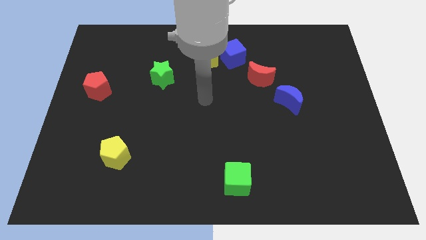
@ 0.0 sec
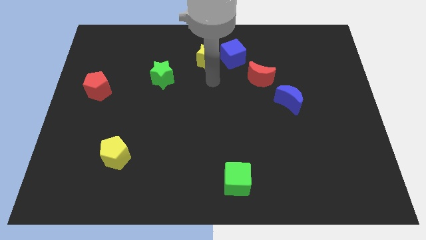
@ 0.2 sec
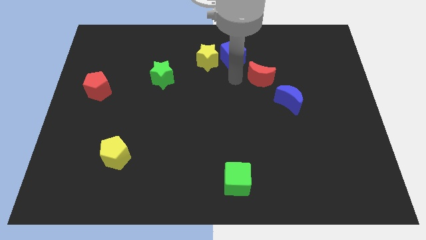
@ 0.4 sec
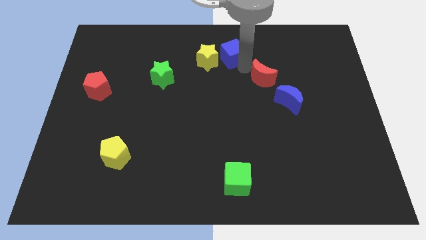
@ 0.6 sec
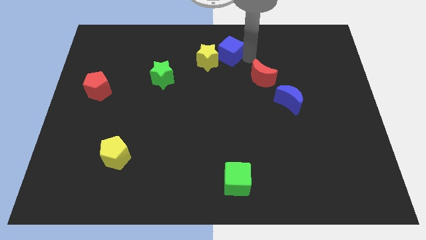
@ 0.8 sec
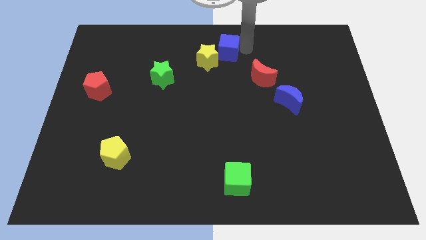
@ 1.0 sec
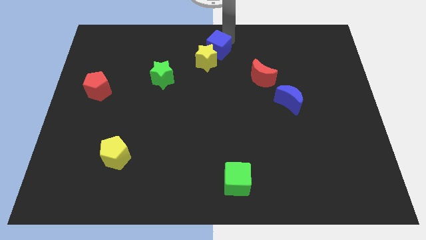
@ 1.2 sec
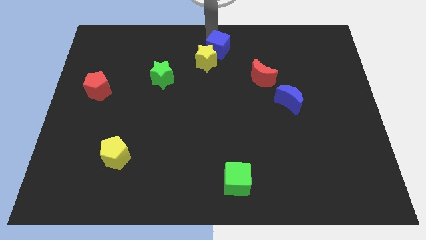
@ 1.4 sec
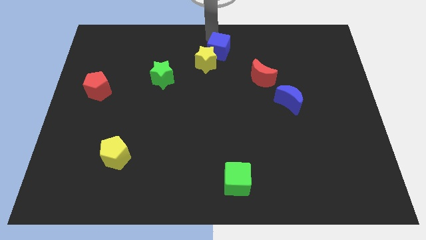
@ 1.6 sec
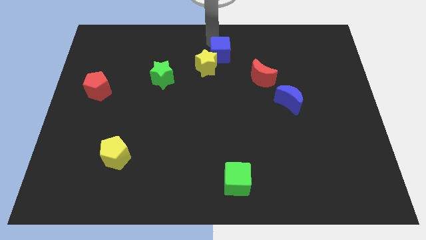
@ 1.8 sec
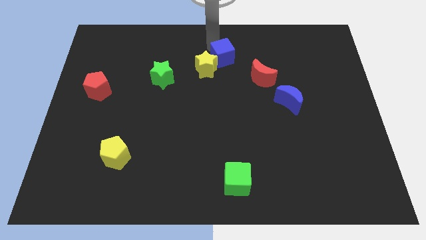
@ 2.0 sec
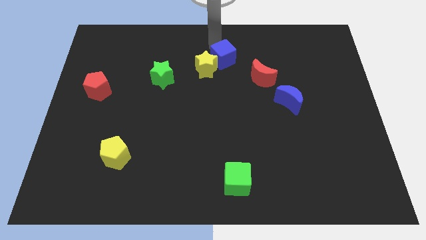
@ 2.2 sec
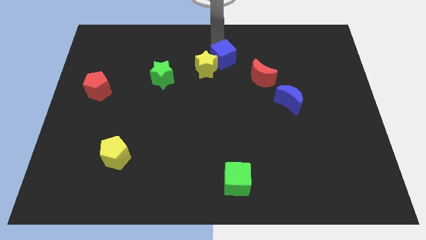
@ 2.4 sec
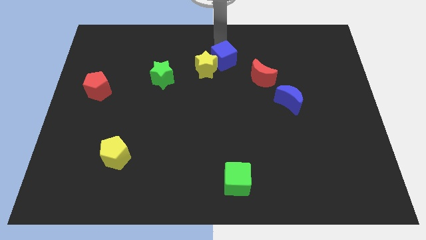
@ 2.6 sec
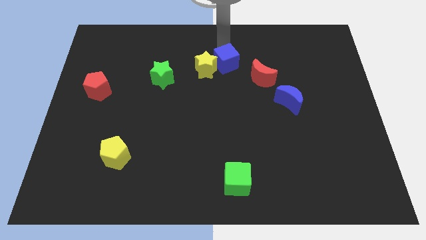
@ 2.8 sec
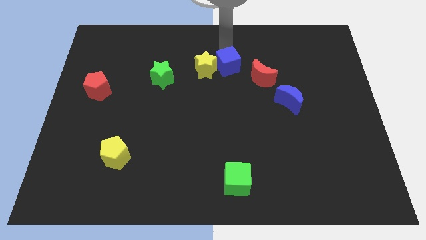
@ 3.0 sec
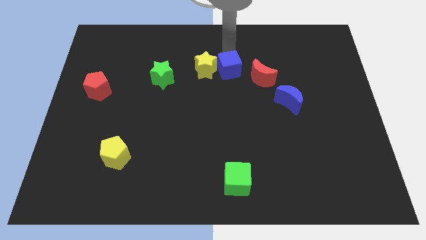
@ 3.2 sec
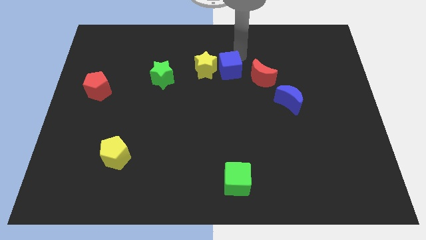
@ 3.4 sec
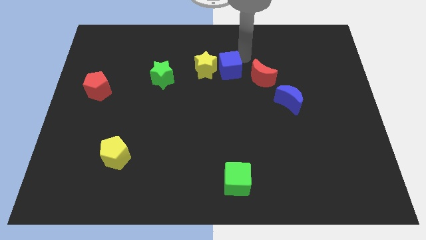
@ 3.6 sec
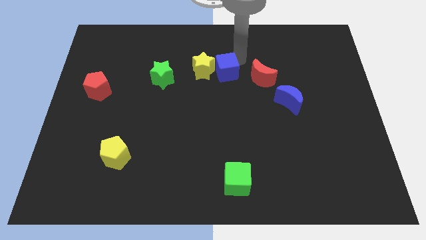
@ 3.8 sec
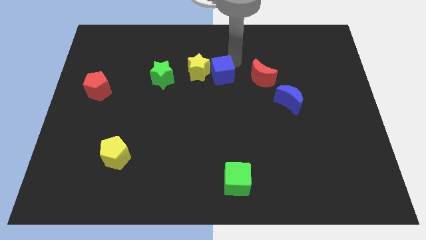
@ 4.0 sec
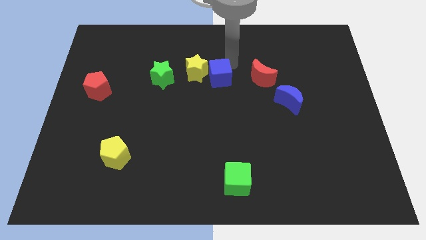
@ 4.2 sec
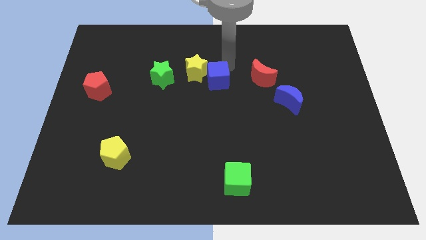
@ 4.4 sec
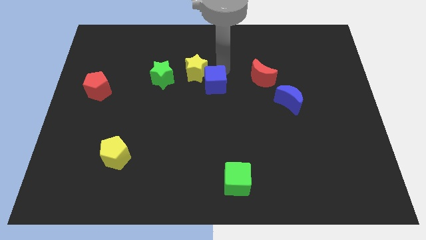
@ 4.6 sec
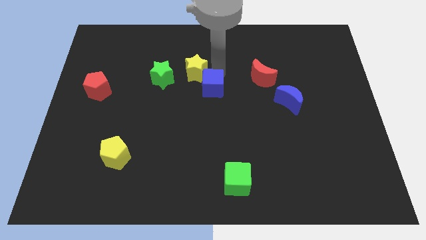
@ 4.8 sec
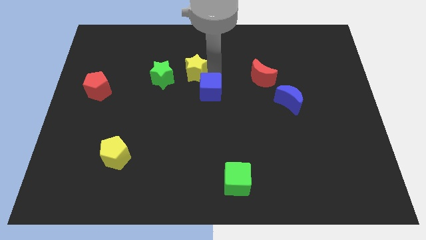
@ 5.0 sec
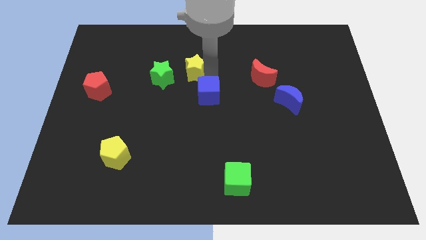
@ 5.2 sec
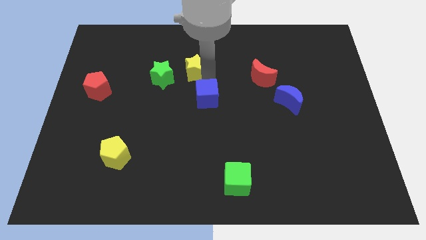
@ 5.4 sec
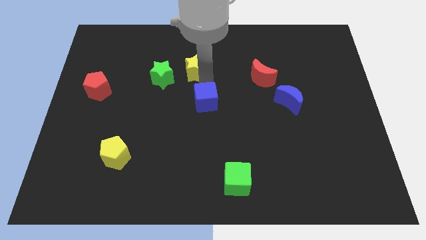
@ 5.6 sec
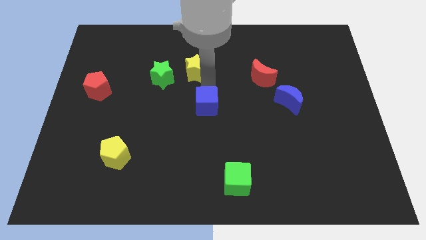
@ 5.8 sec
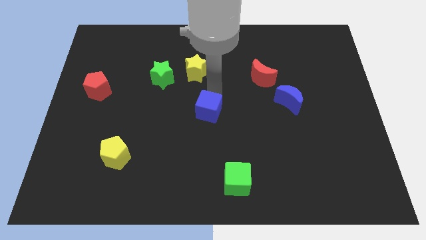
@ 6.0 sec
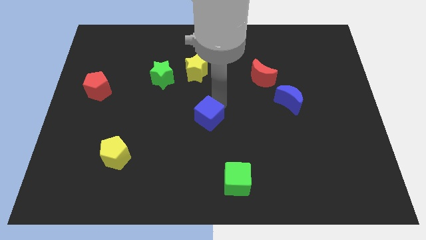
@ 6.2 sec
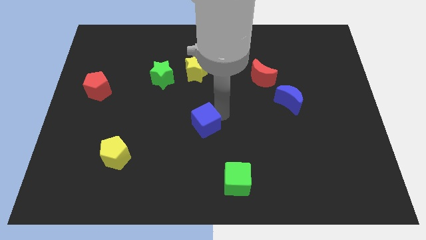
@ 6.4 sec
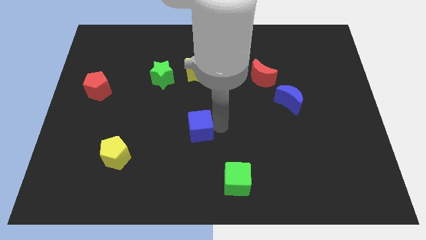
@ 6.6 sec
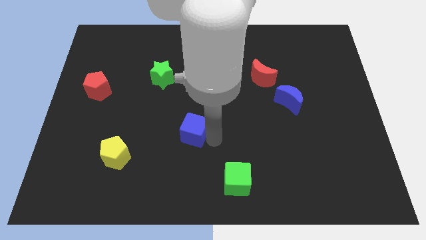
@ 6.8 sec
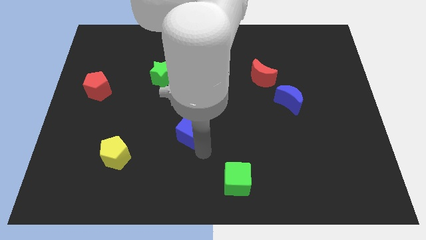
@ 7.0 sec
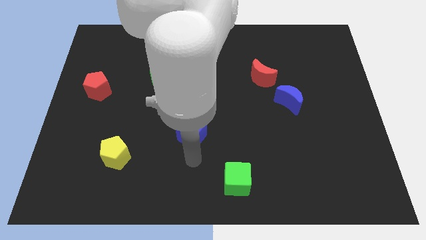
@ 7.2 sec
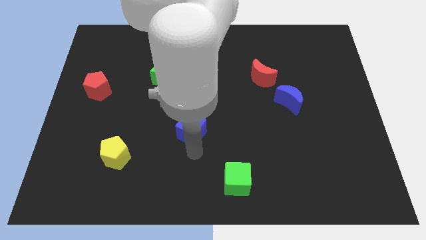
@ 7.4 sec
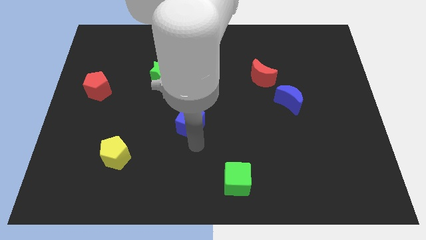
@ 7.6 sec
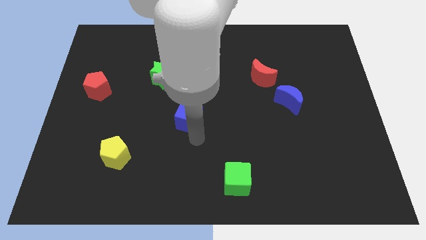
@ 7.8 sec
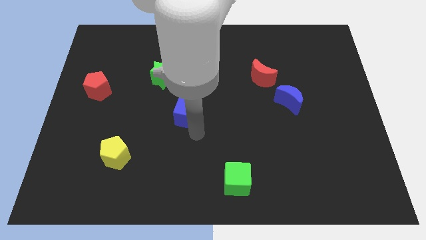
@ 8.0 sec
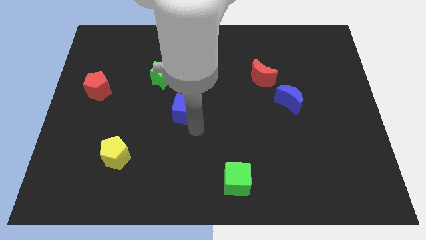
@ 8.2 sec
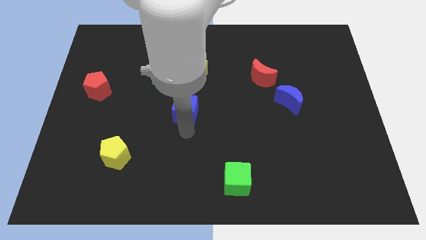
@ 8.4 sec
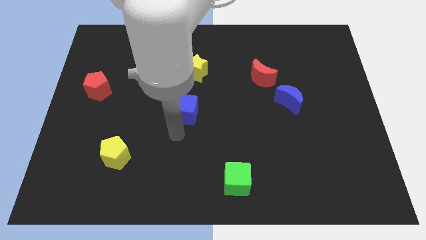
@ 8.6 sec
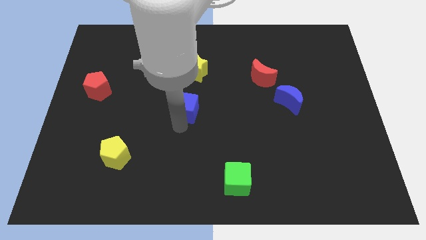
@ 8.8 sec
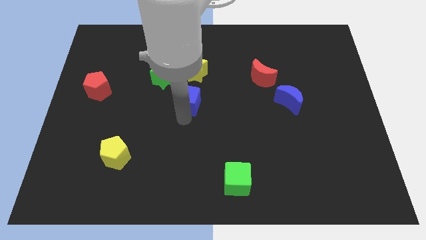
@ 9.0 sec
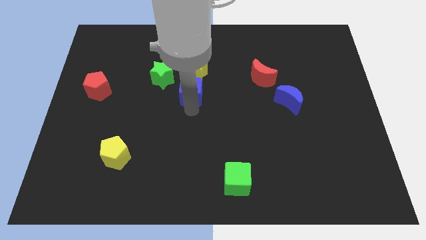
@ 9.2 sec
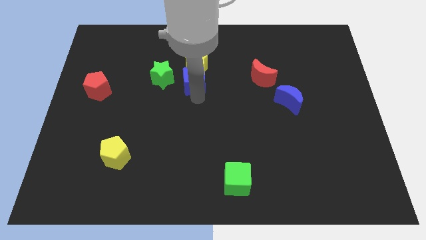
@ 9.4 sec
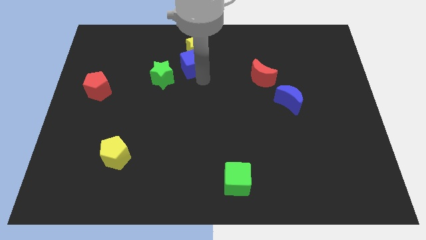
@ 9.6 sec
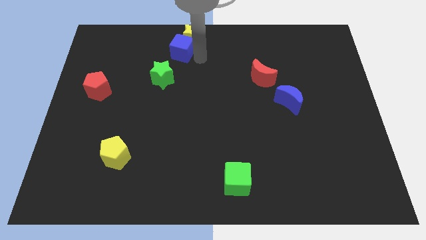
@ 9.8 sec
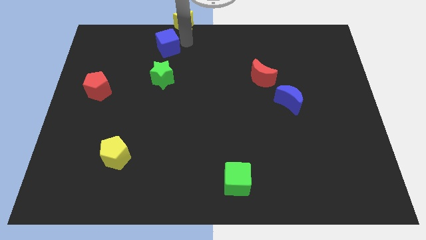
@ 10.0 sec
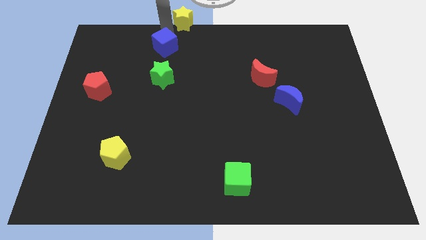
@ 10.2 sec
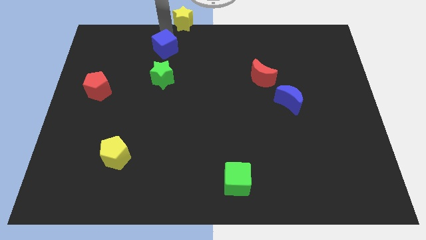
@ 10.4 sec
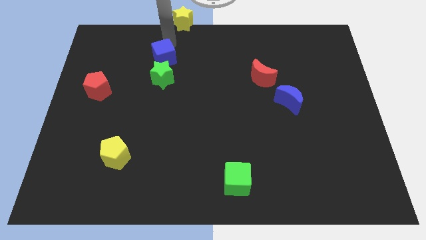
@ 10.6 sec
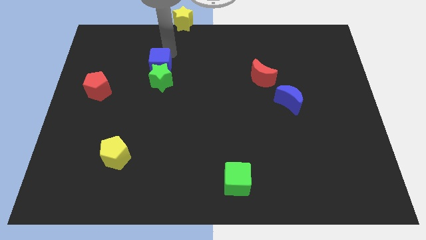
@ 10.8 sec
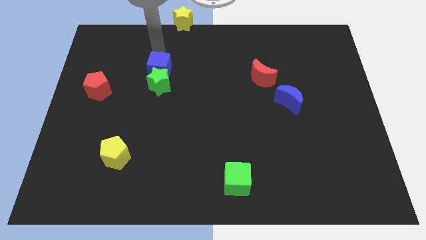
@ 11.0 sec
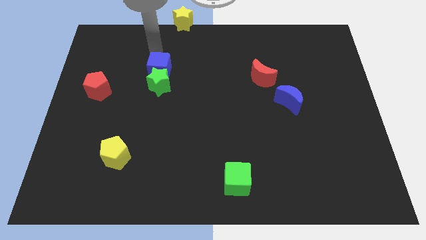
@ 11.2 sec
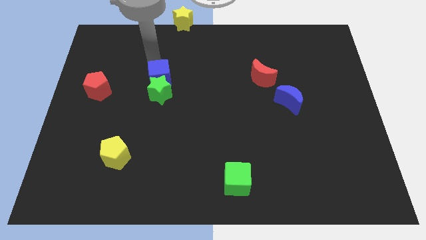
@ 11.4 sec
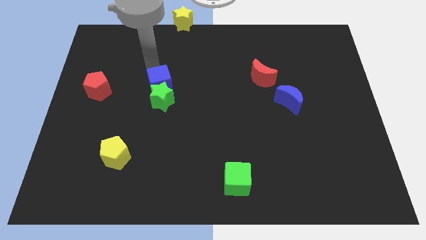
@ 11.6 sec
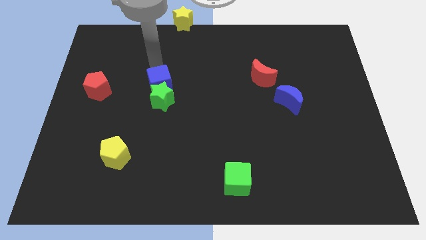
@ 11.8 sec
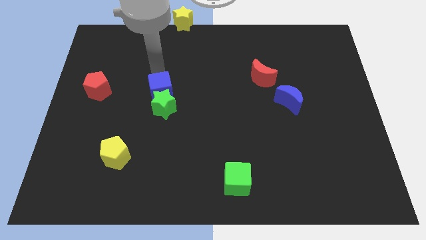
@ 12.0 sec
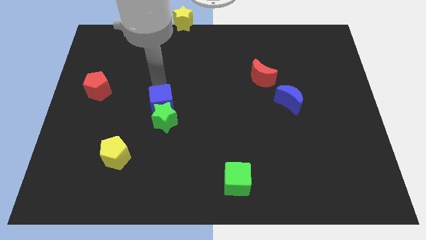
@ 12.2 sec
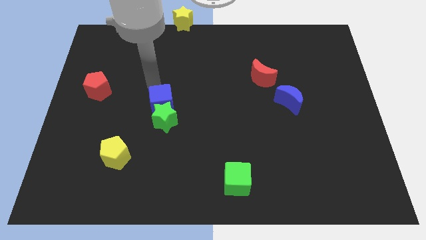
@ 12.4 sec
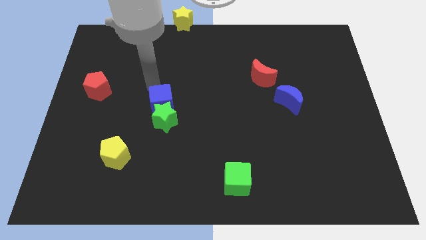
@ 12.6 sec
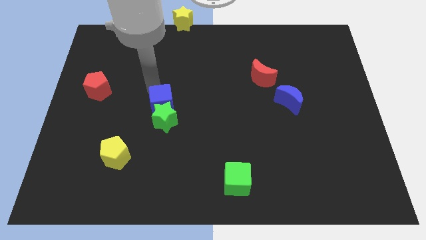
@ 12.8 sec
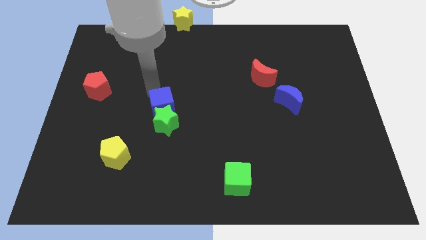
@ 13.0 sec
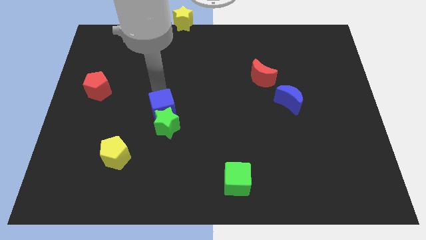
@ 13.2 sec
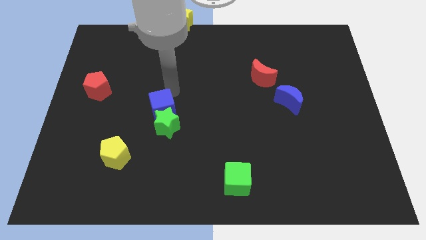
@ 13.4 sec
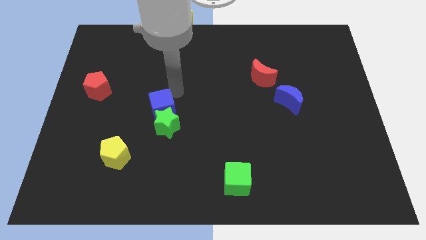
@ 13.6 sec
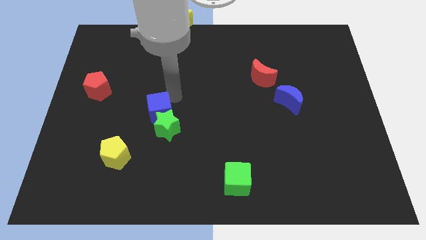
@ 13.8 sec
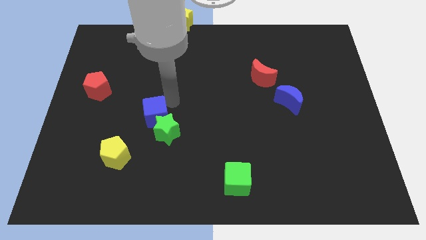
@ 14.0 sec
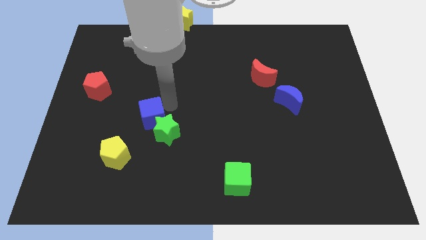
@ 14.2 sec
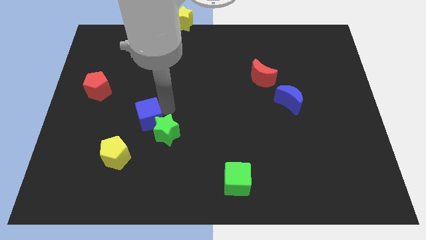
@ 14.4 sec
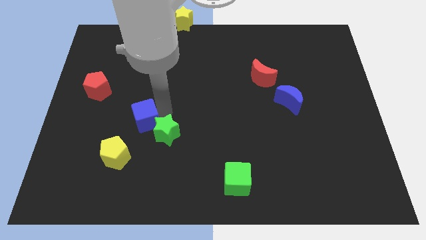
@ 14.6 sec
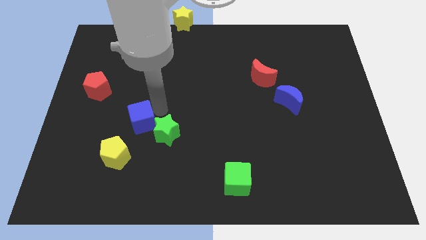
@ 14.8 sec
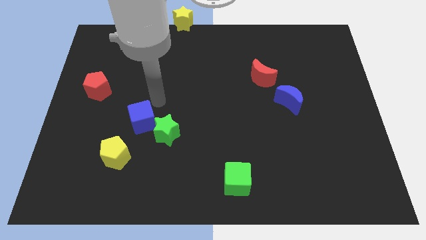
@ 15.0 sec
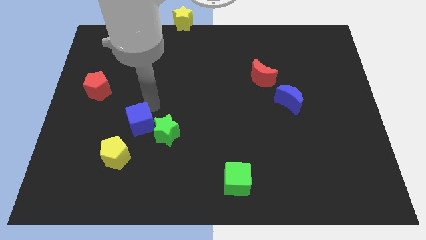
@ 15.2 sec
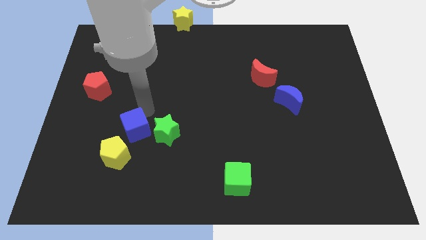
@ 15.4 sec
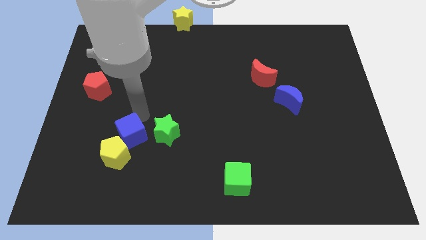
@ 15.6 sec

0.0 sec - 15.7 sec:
slide the blue cube next to the yellow pentagon
